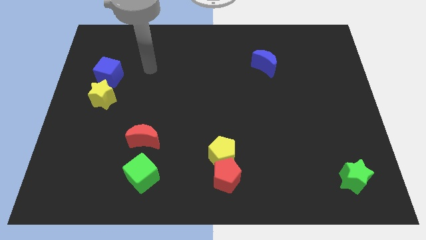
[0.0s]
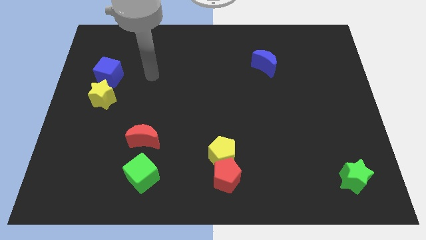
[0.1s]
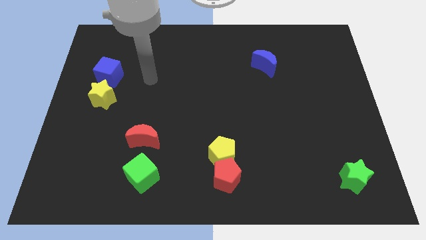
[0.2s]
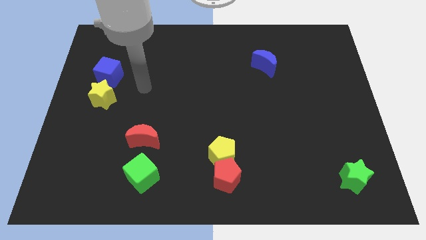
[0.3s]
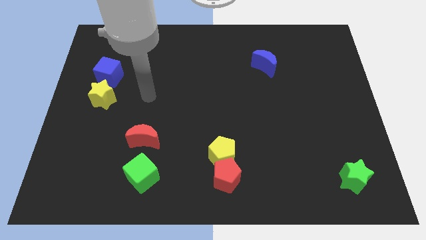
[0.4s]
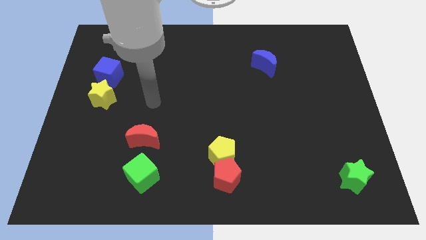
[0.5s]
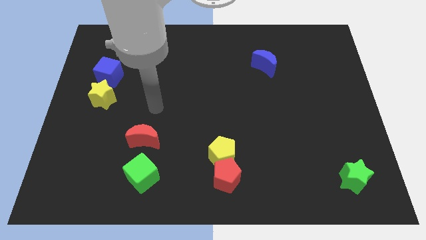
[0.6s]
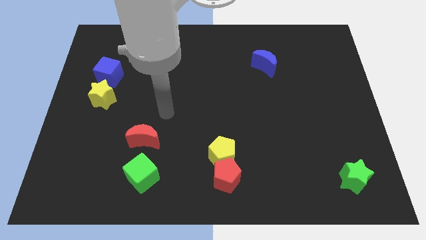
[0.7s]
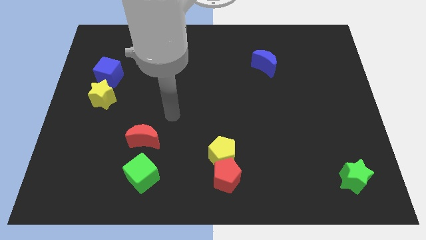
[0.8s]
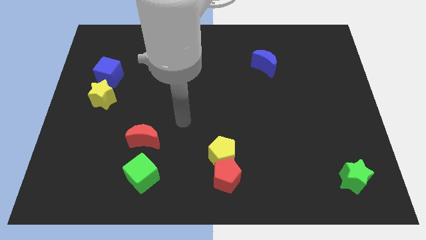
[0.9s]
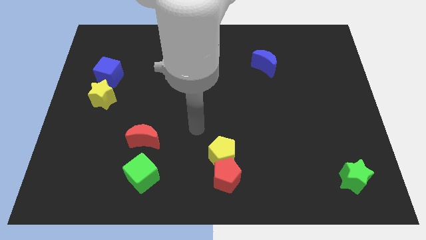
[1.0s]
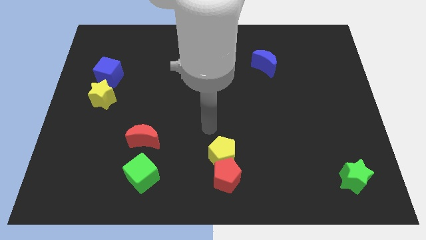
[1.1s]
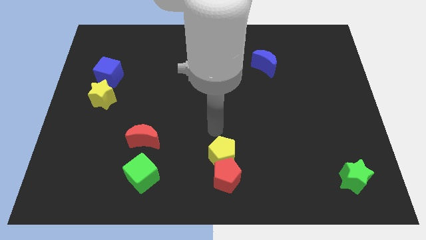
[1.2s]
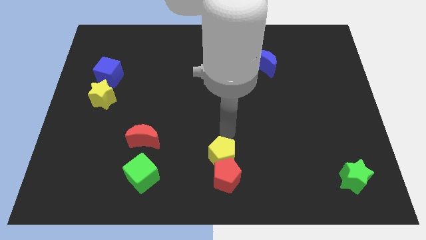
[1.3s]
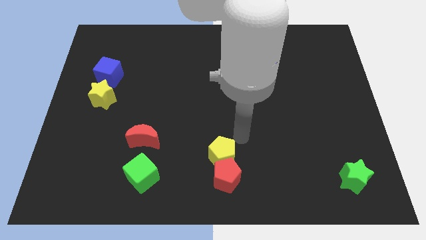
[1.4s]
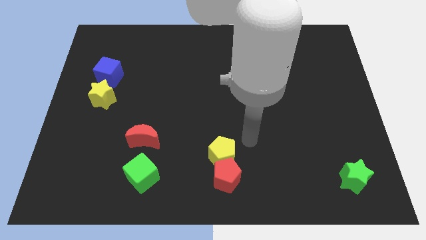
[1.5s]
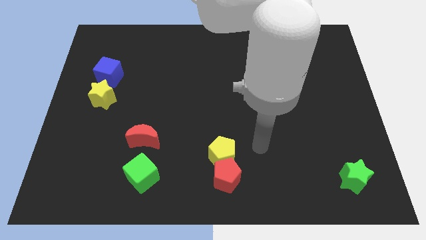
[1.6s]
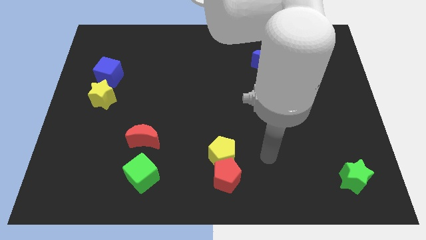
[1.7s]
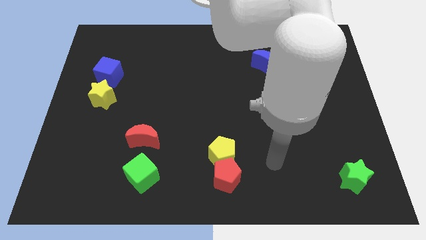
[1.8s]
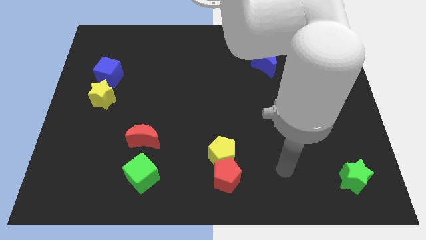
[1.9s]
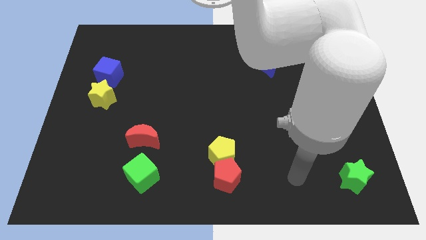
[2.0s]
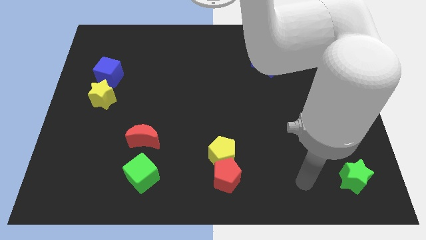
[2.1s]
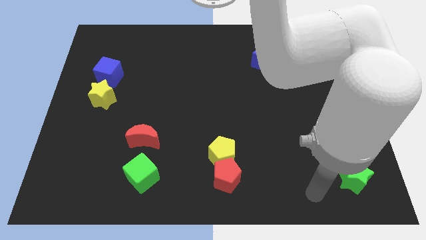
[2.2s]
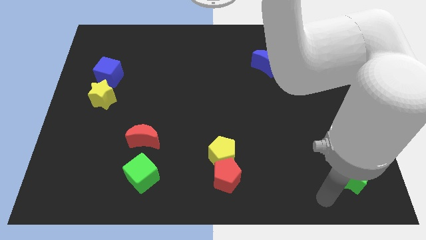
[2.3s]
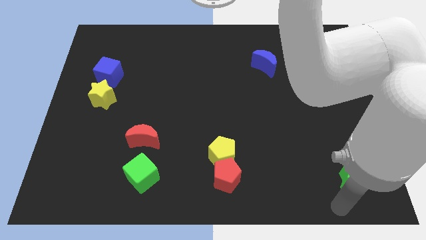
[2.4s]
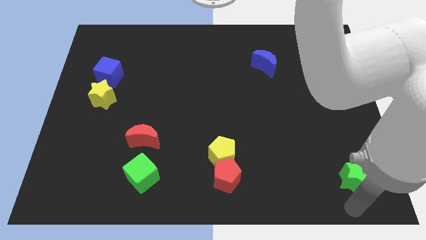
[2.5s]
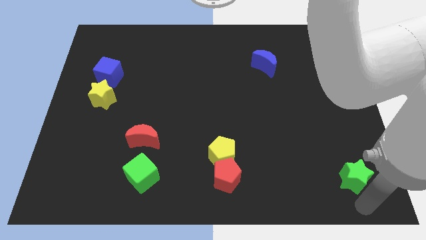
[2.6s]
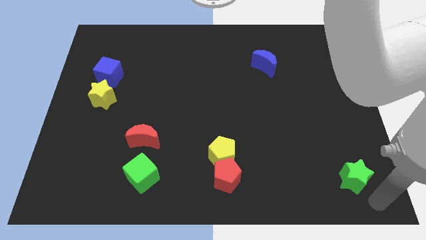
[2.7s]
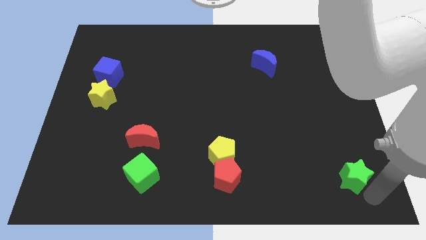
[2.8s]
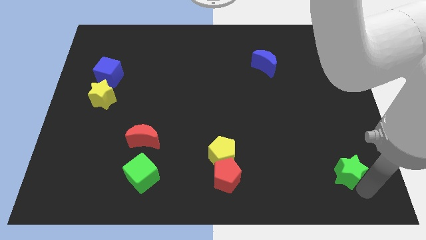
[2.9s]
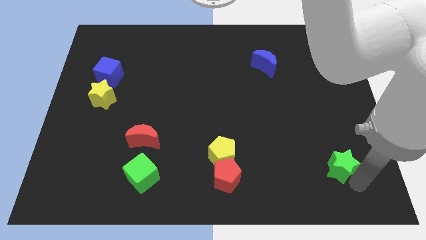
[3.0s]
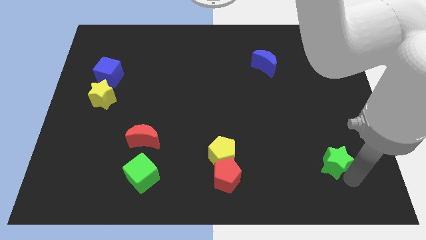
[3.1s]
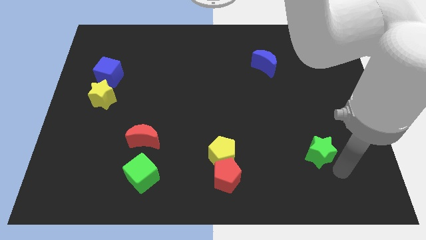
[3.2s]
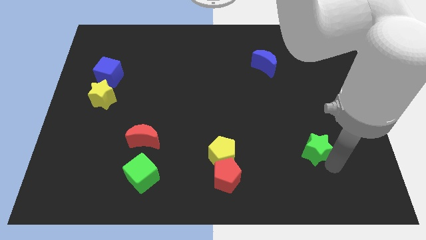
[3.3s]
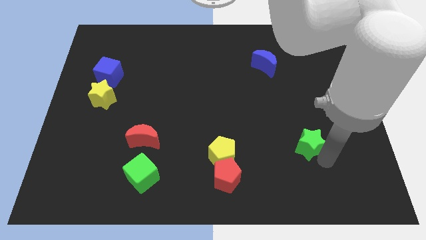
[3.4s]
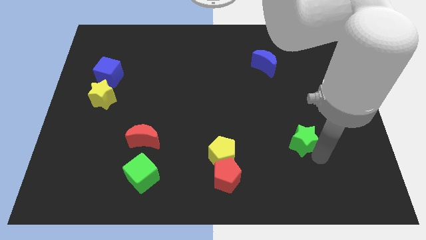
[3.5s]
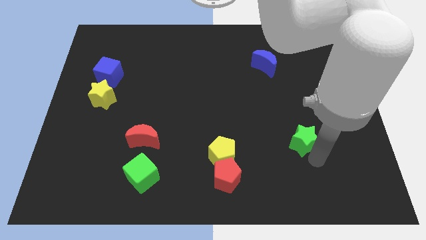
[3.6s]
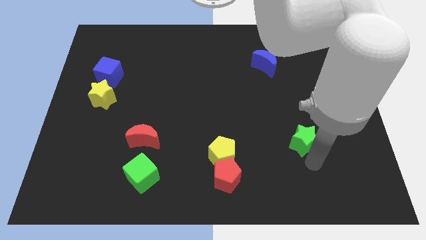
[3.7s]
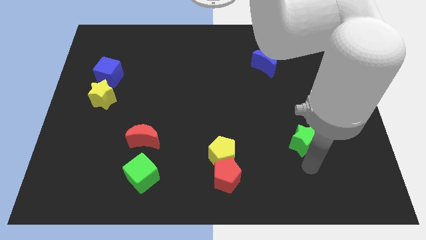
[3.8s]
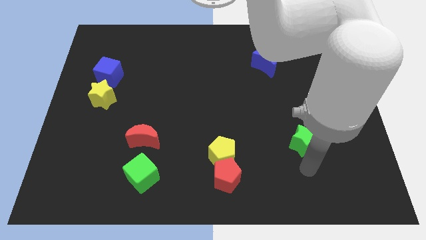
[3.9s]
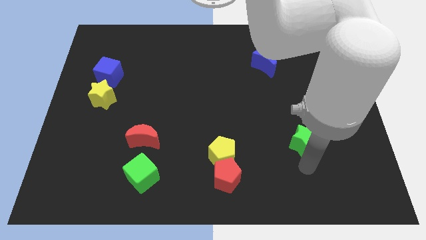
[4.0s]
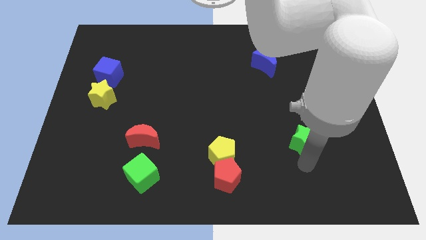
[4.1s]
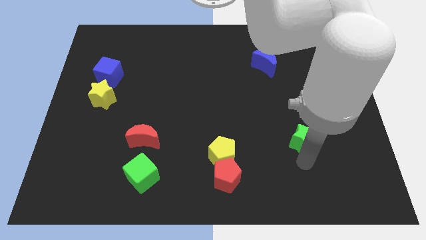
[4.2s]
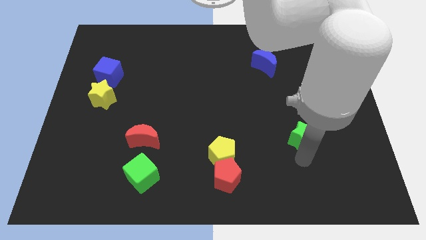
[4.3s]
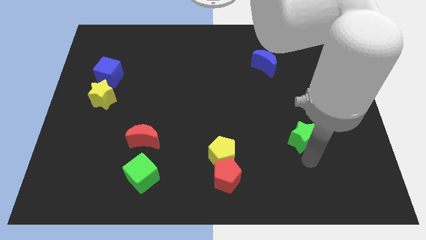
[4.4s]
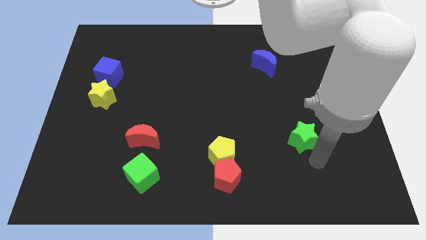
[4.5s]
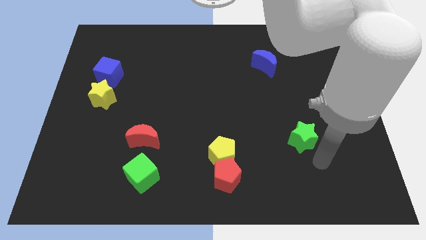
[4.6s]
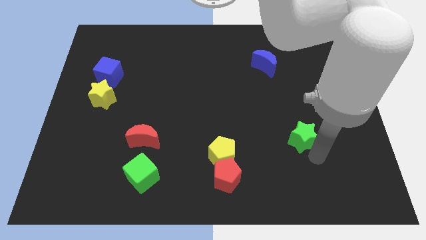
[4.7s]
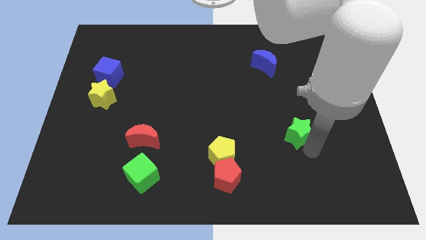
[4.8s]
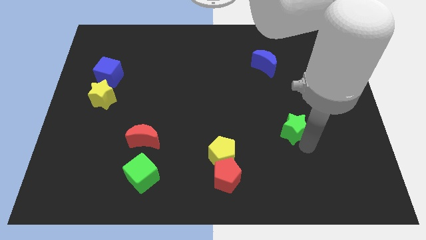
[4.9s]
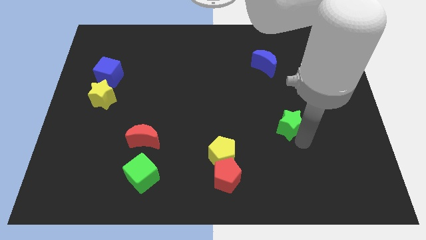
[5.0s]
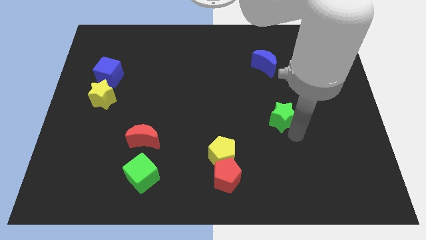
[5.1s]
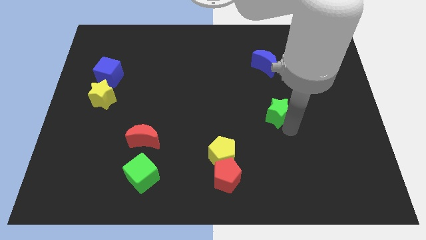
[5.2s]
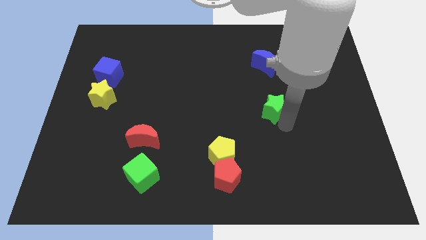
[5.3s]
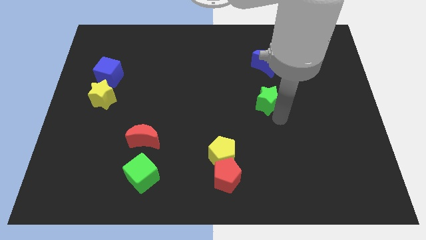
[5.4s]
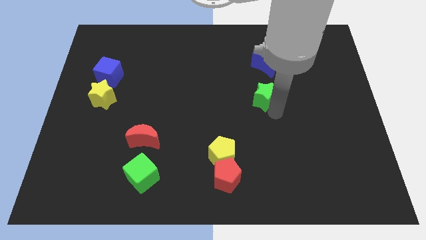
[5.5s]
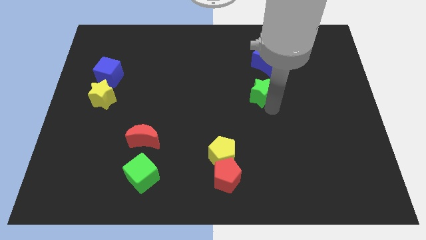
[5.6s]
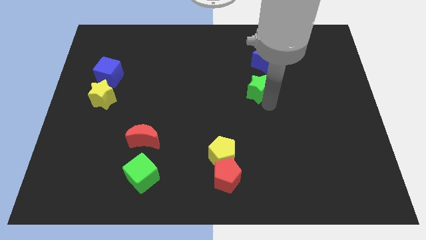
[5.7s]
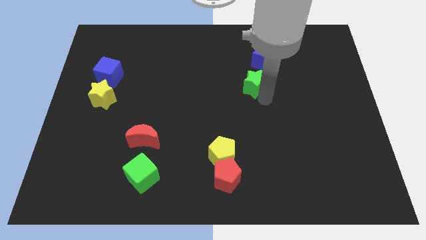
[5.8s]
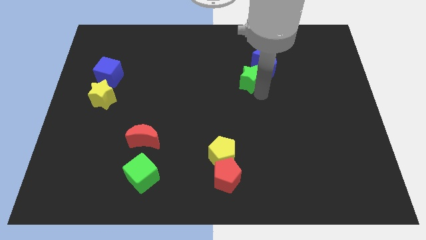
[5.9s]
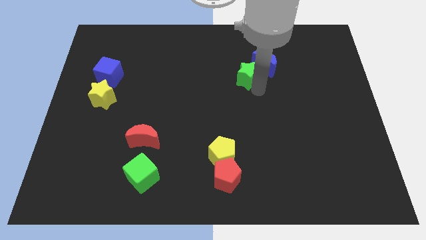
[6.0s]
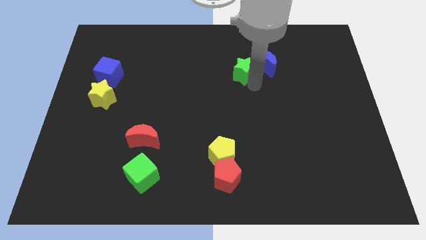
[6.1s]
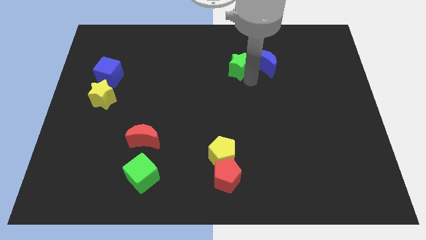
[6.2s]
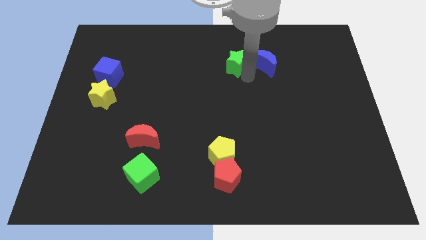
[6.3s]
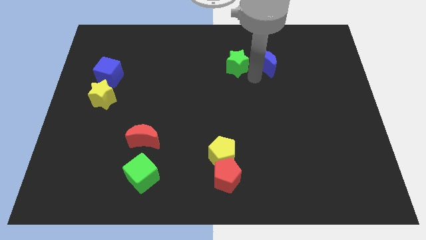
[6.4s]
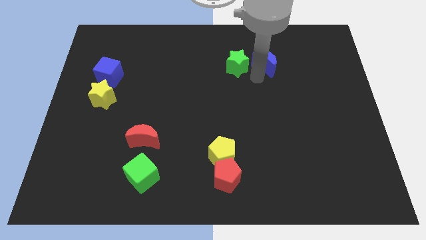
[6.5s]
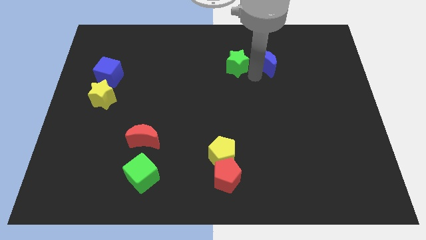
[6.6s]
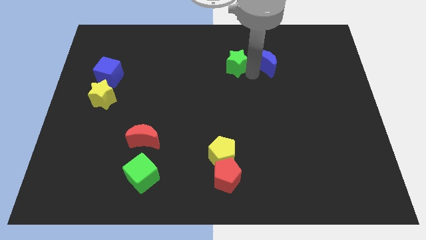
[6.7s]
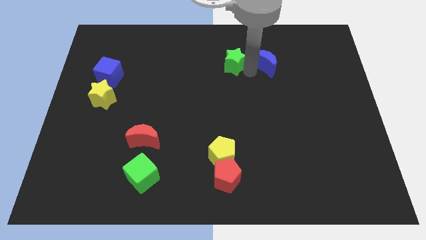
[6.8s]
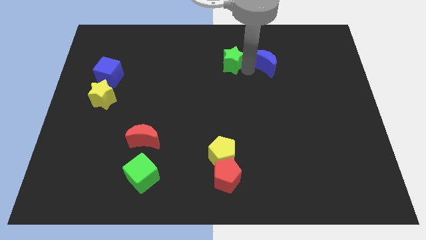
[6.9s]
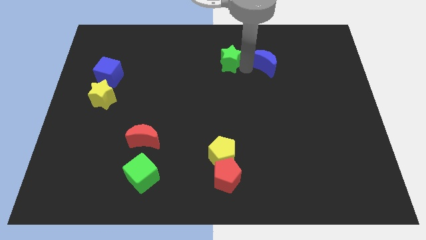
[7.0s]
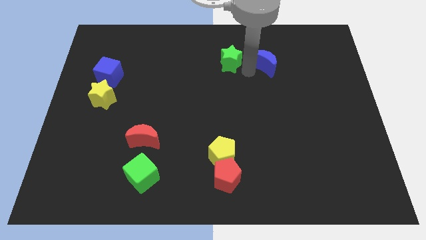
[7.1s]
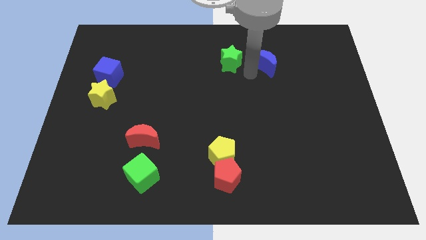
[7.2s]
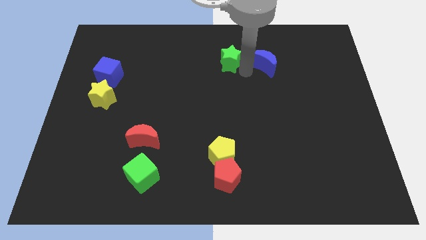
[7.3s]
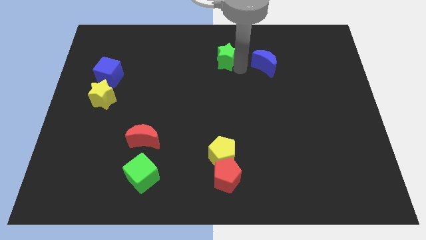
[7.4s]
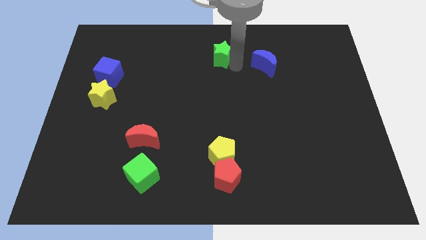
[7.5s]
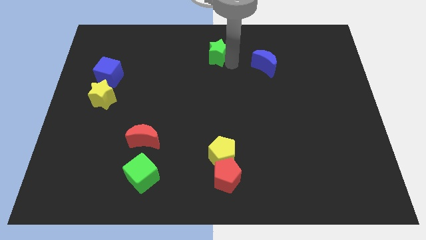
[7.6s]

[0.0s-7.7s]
move the green star to the top side

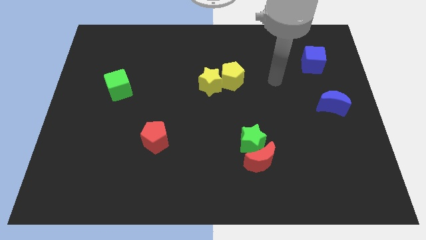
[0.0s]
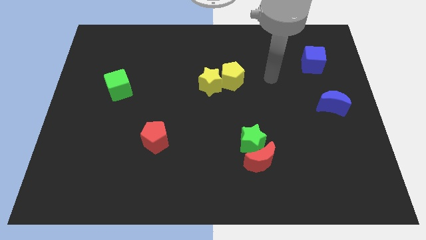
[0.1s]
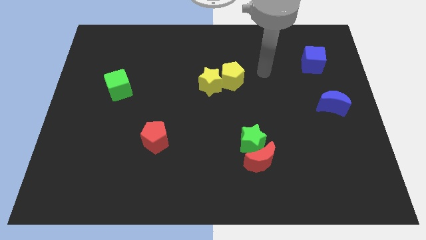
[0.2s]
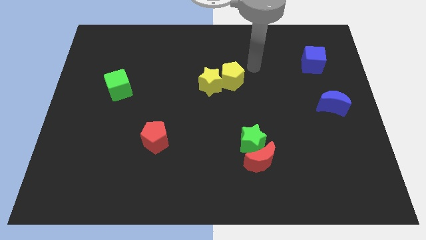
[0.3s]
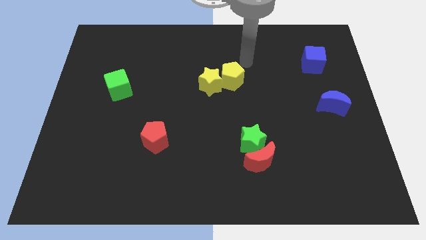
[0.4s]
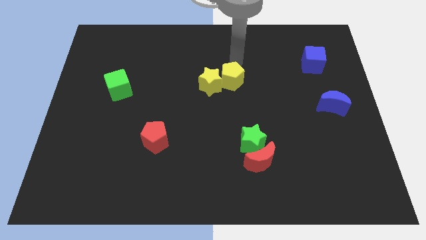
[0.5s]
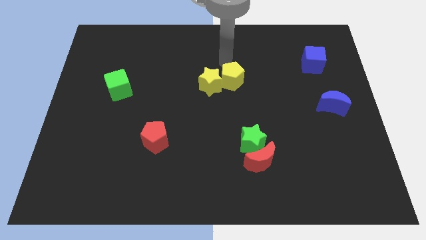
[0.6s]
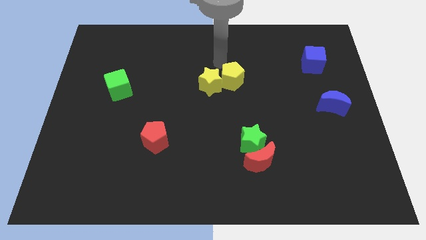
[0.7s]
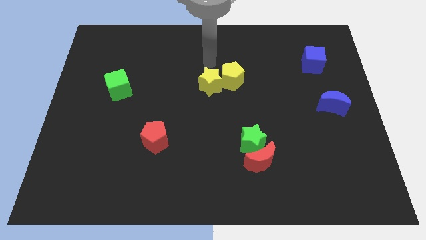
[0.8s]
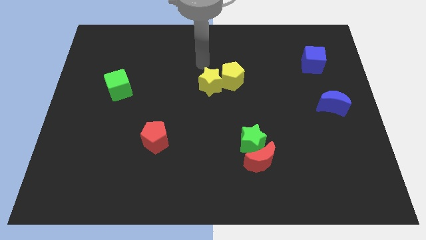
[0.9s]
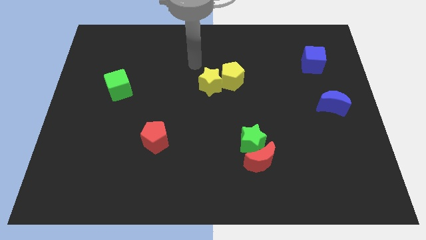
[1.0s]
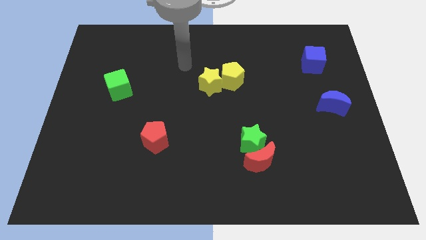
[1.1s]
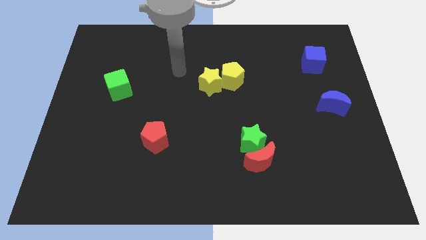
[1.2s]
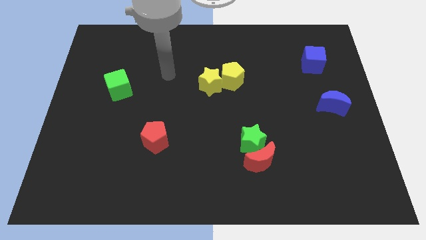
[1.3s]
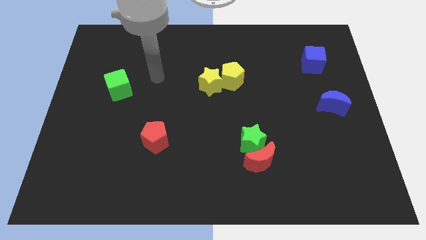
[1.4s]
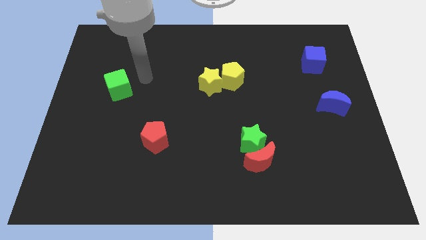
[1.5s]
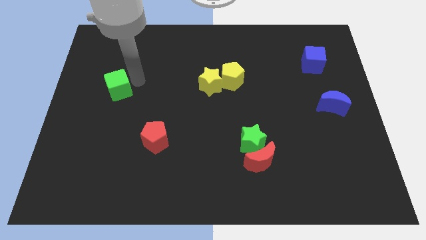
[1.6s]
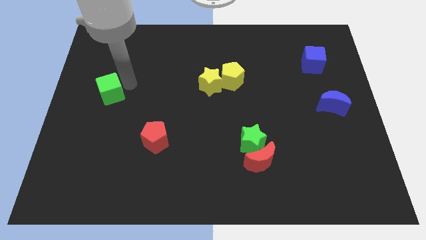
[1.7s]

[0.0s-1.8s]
slide the green cube to the left side of the board
